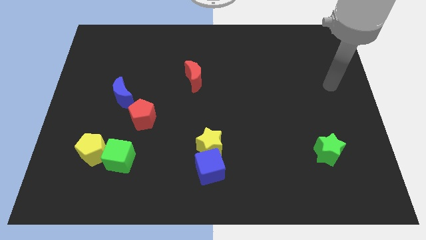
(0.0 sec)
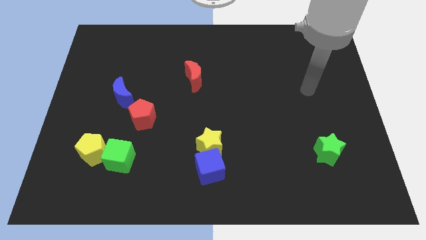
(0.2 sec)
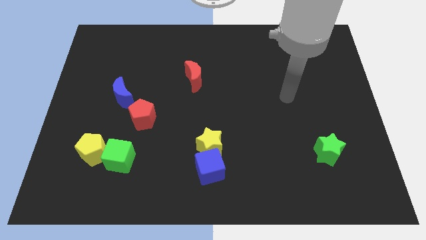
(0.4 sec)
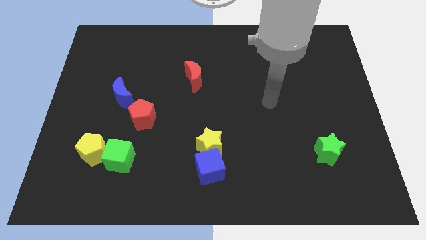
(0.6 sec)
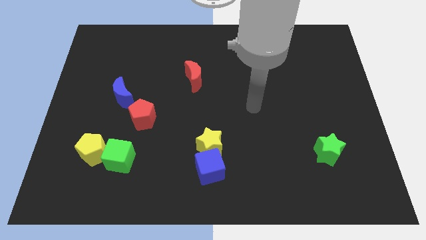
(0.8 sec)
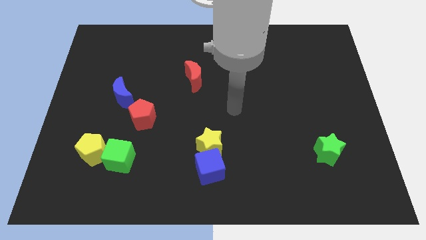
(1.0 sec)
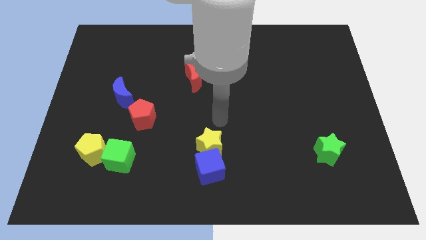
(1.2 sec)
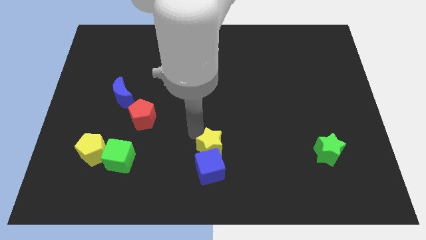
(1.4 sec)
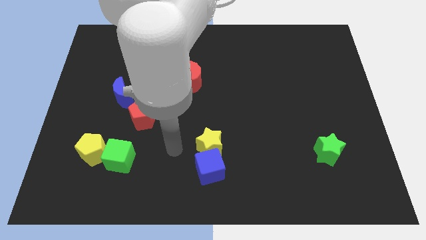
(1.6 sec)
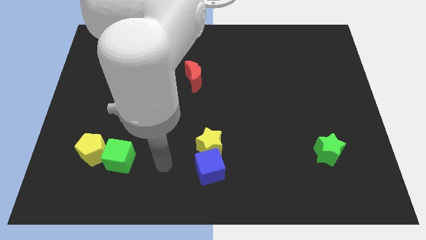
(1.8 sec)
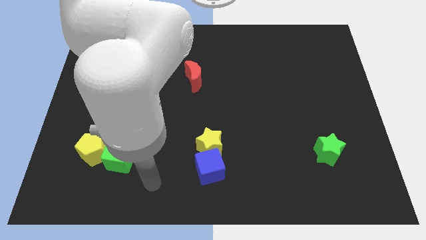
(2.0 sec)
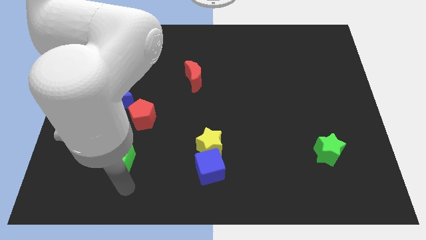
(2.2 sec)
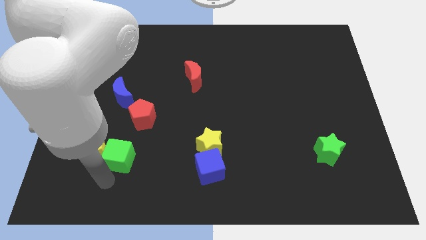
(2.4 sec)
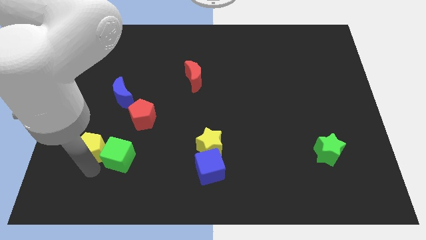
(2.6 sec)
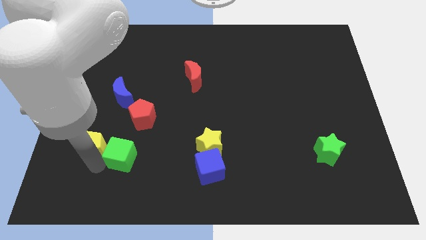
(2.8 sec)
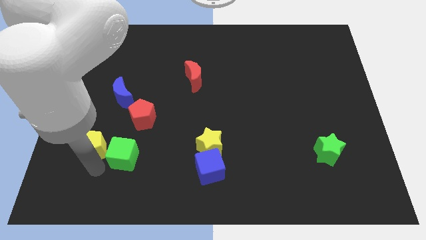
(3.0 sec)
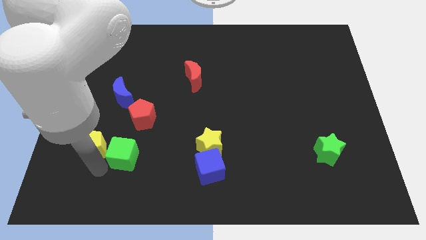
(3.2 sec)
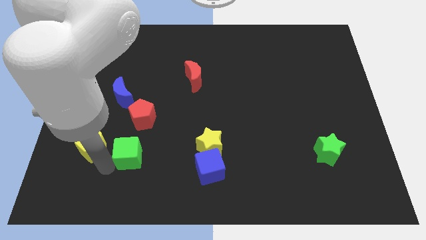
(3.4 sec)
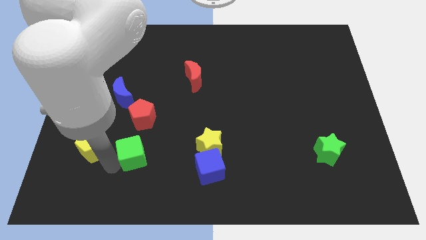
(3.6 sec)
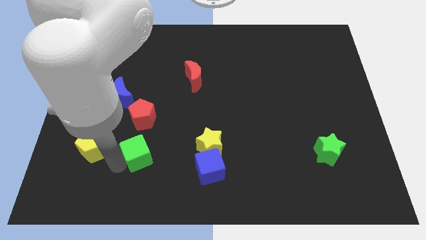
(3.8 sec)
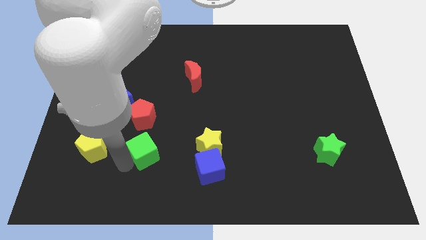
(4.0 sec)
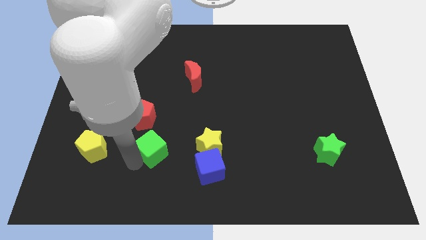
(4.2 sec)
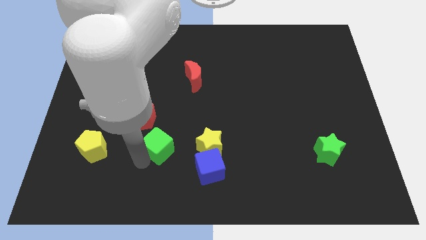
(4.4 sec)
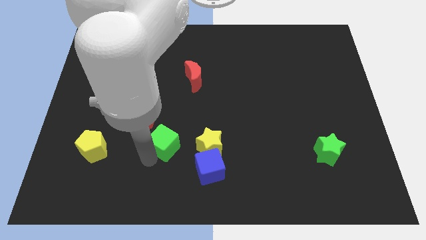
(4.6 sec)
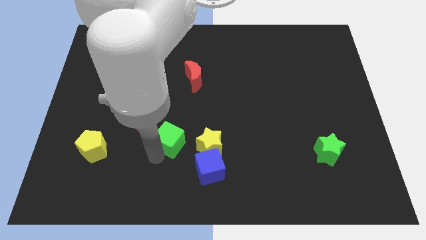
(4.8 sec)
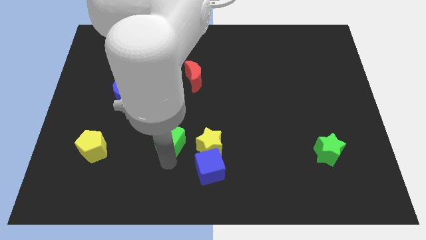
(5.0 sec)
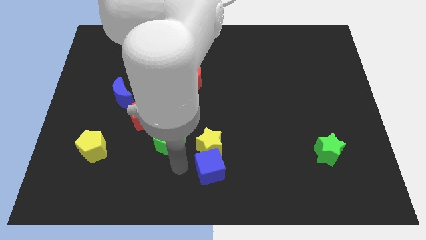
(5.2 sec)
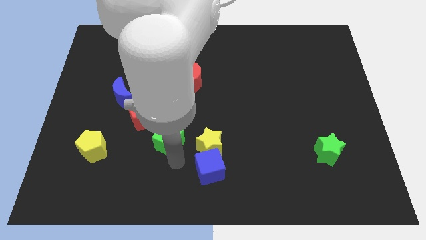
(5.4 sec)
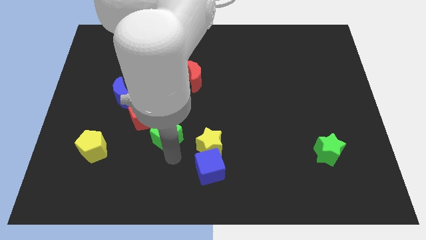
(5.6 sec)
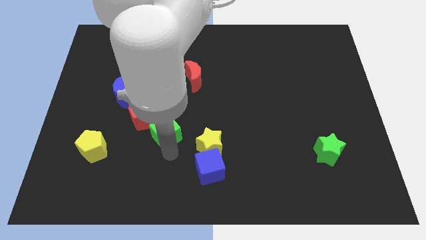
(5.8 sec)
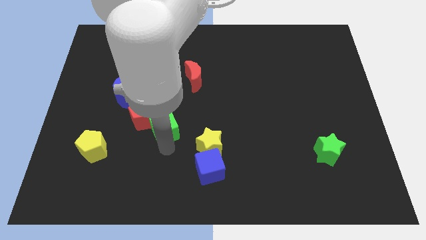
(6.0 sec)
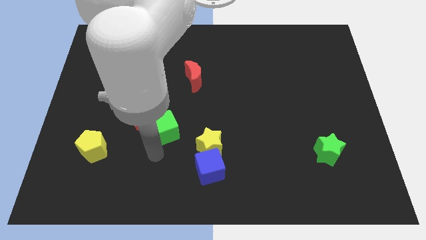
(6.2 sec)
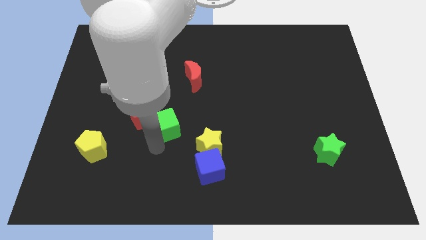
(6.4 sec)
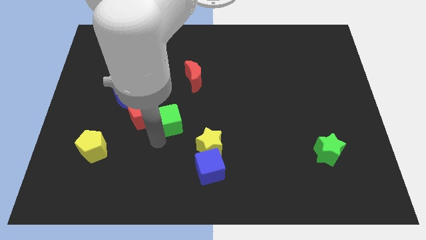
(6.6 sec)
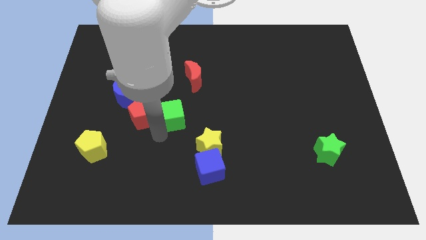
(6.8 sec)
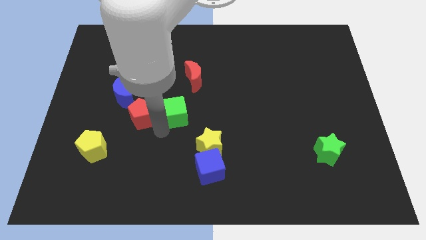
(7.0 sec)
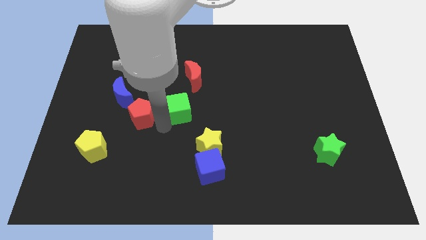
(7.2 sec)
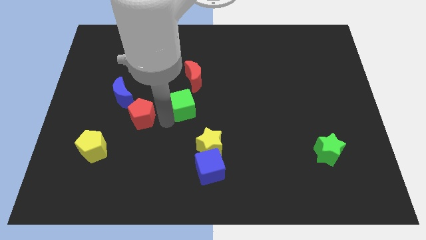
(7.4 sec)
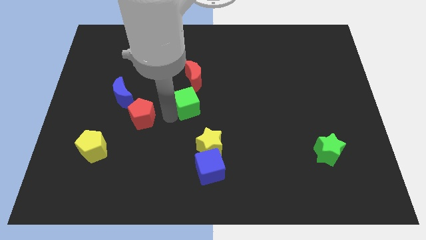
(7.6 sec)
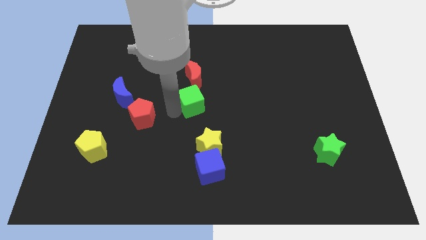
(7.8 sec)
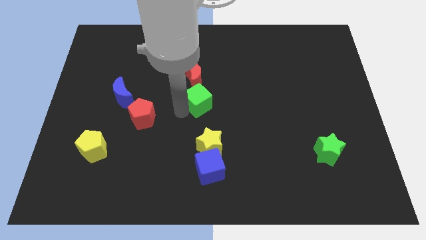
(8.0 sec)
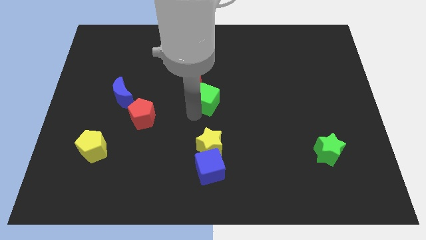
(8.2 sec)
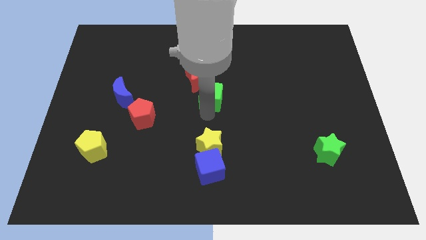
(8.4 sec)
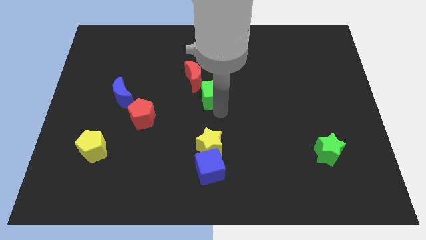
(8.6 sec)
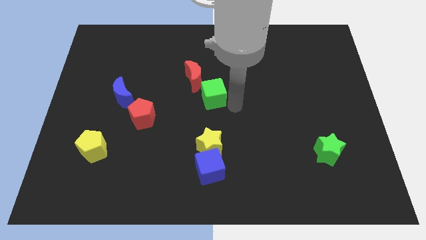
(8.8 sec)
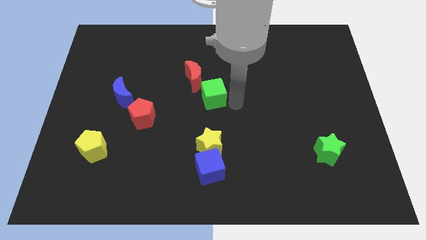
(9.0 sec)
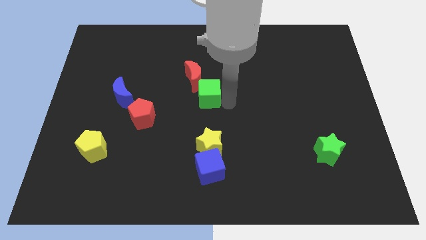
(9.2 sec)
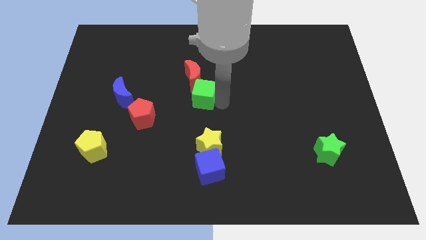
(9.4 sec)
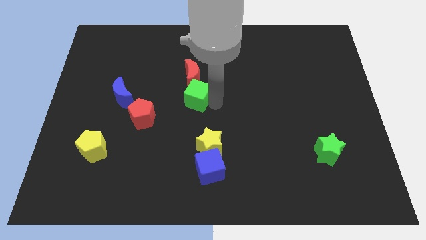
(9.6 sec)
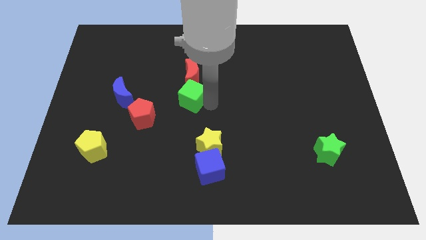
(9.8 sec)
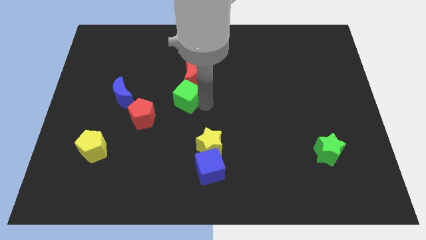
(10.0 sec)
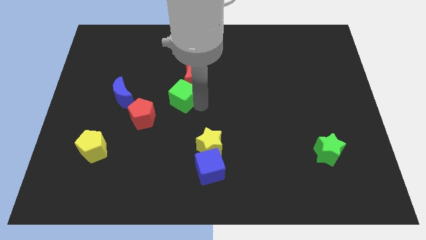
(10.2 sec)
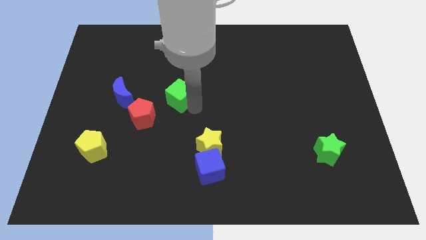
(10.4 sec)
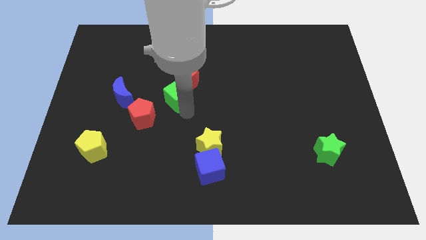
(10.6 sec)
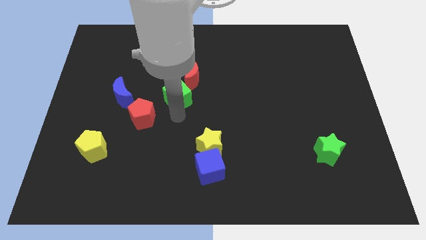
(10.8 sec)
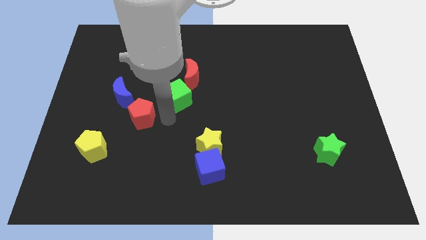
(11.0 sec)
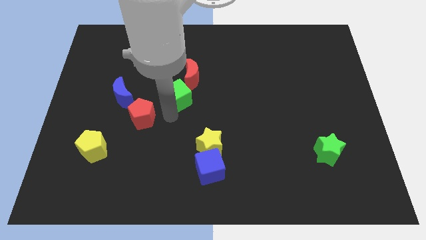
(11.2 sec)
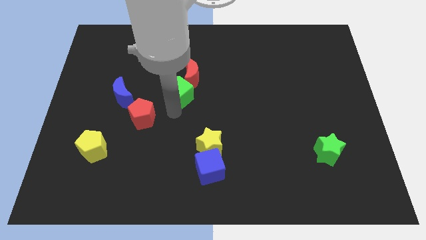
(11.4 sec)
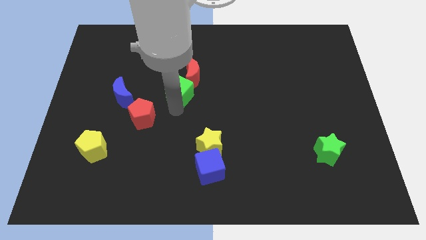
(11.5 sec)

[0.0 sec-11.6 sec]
move the green cube close to the red moon

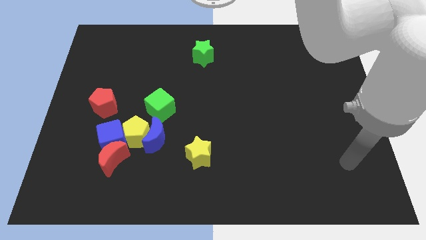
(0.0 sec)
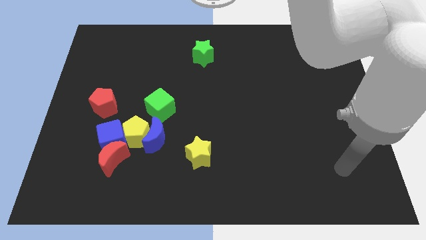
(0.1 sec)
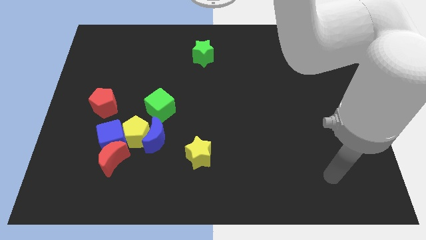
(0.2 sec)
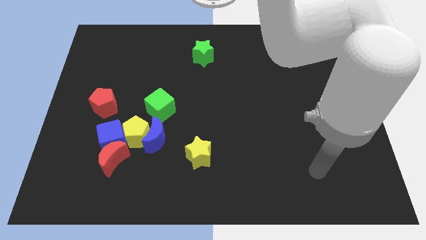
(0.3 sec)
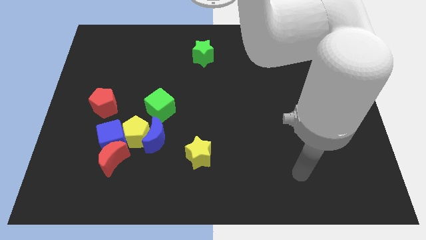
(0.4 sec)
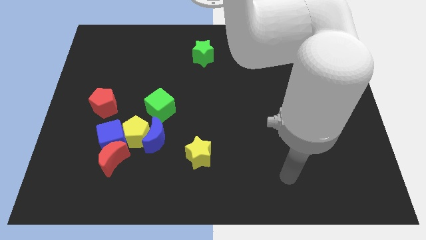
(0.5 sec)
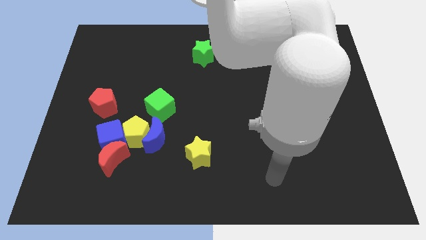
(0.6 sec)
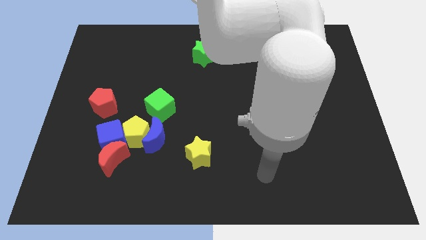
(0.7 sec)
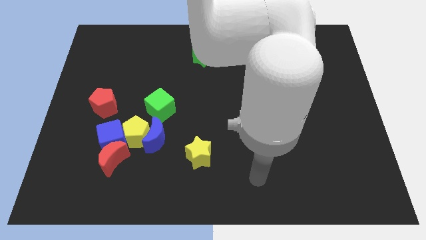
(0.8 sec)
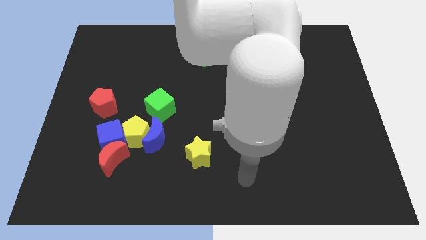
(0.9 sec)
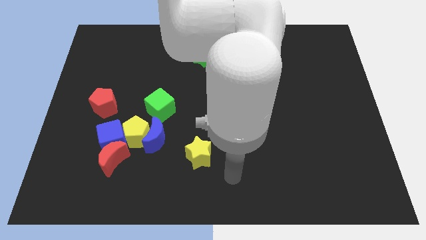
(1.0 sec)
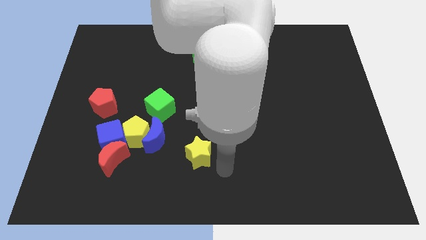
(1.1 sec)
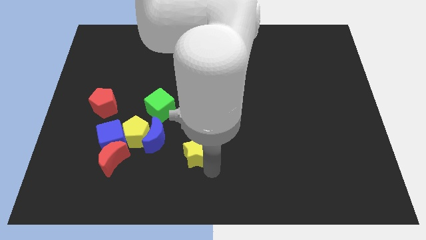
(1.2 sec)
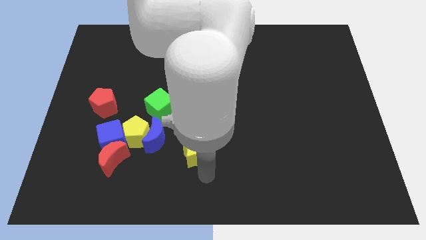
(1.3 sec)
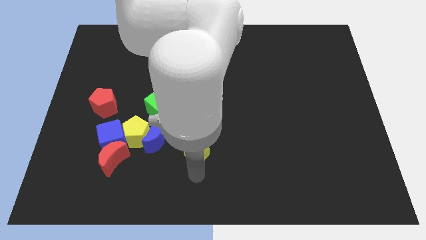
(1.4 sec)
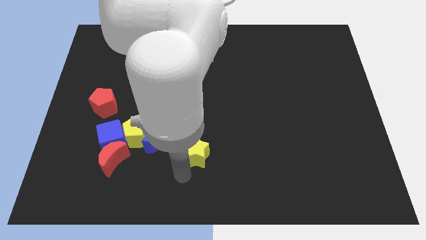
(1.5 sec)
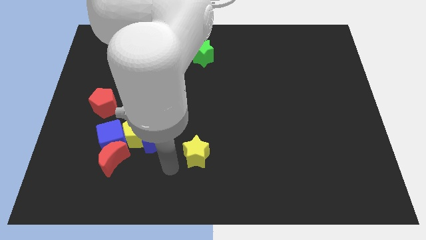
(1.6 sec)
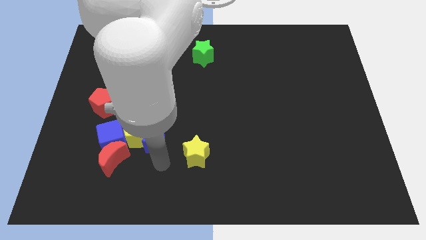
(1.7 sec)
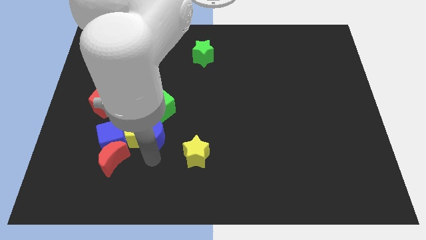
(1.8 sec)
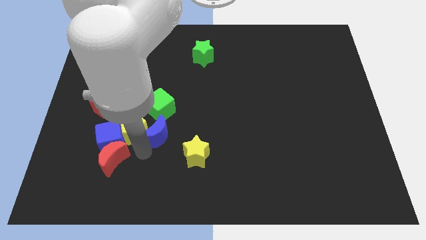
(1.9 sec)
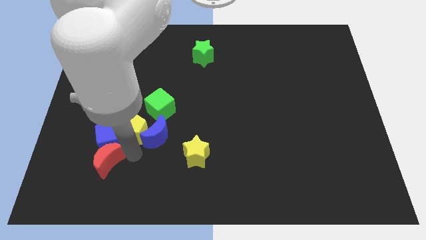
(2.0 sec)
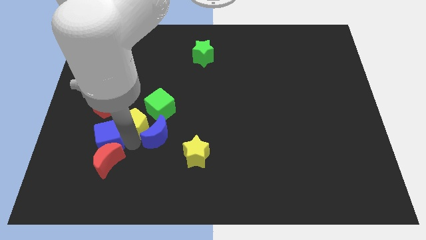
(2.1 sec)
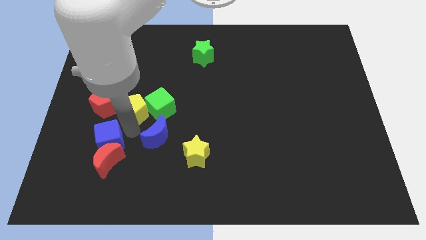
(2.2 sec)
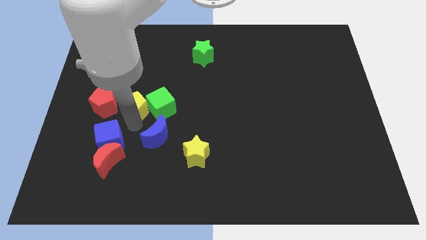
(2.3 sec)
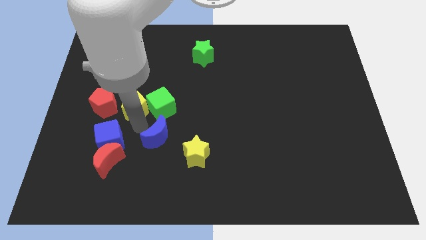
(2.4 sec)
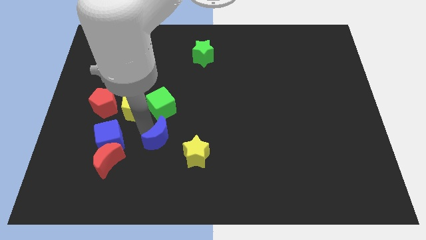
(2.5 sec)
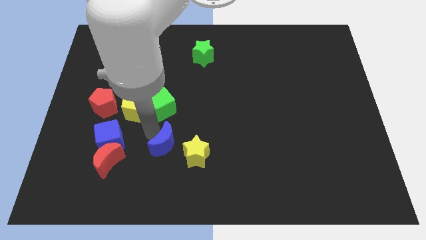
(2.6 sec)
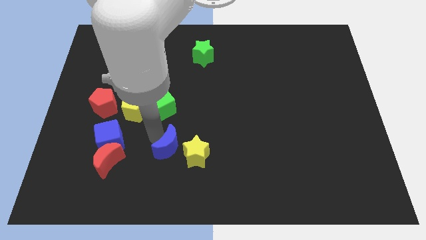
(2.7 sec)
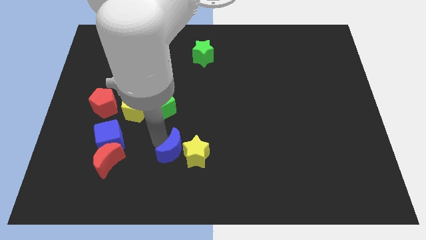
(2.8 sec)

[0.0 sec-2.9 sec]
move the blue moon next to the yellow star
